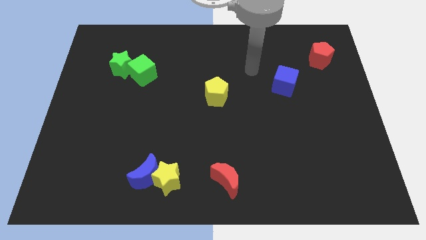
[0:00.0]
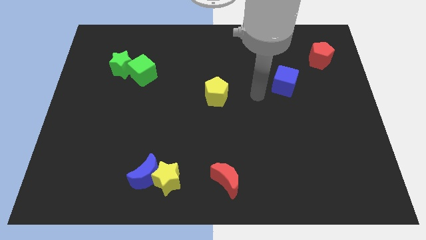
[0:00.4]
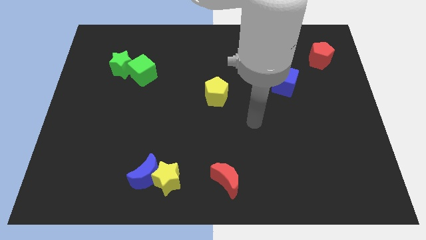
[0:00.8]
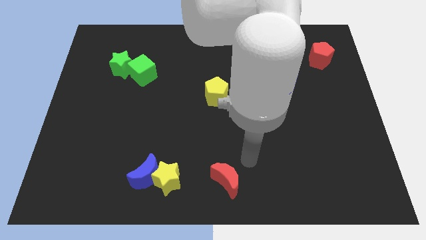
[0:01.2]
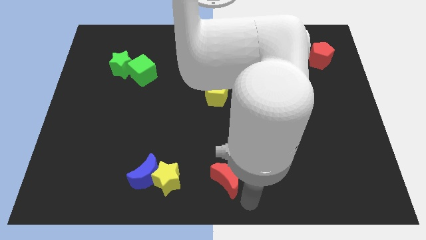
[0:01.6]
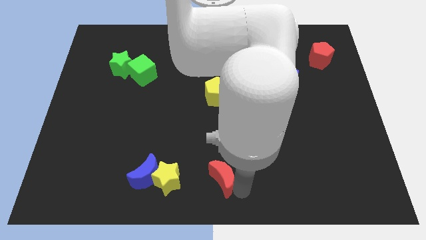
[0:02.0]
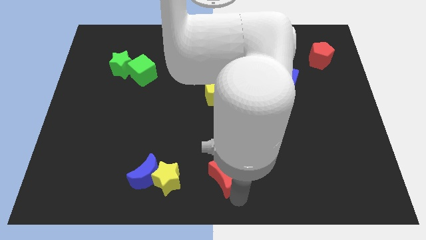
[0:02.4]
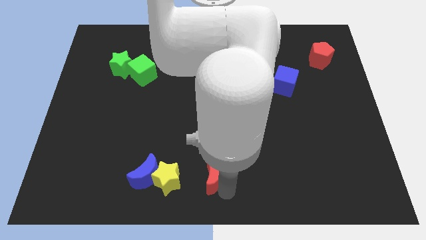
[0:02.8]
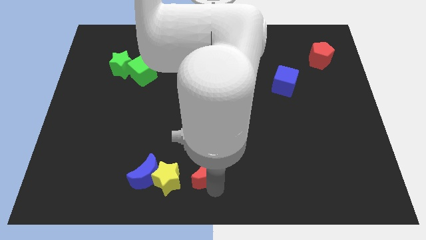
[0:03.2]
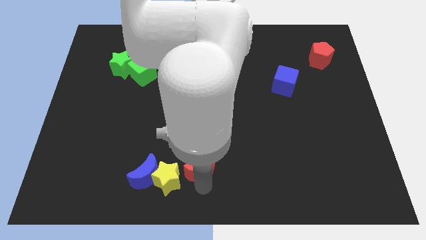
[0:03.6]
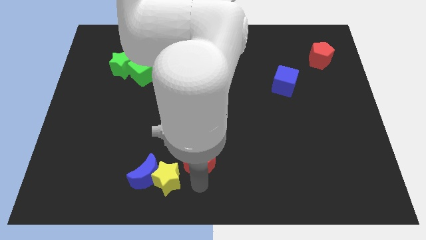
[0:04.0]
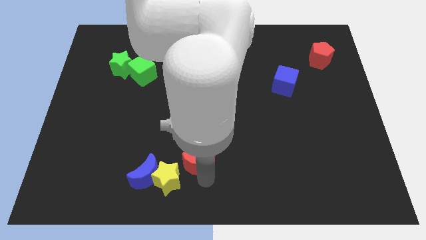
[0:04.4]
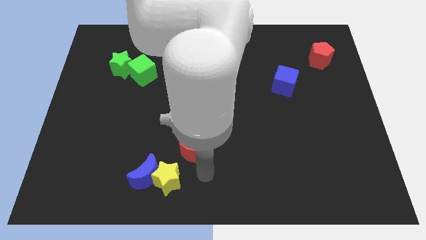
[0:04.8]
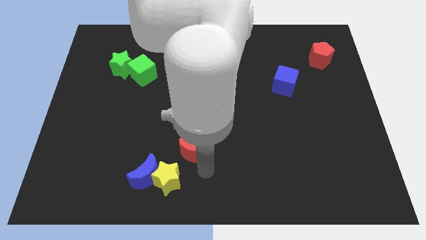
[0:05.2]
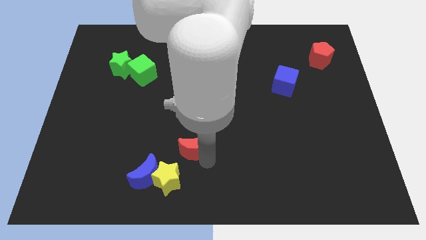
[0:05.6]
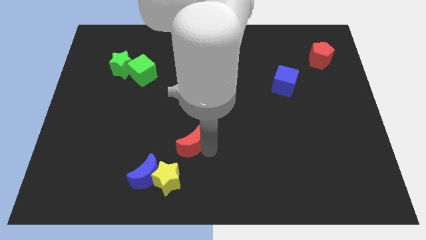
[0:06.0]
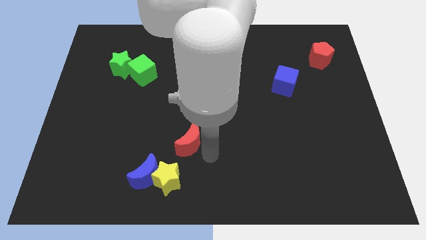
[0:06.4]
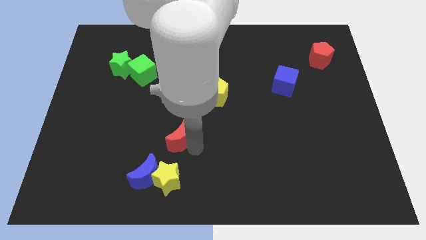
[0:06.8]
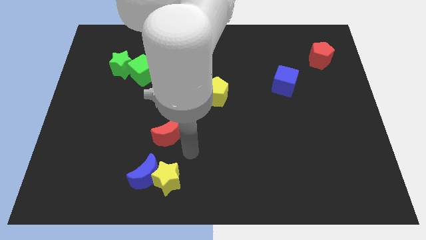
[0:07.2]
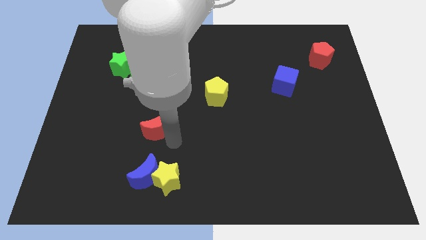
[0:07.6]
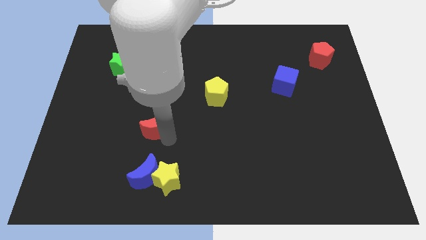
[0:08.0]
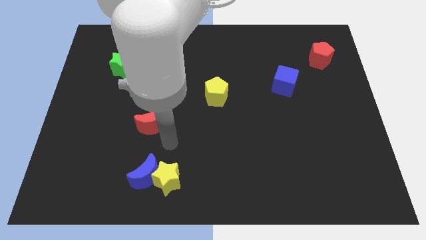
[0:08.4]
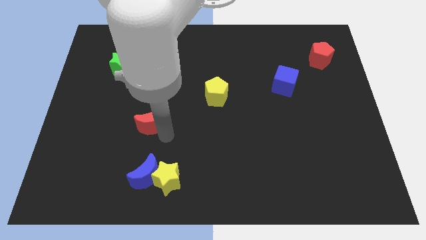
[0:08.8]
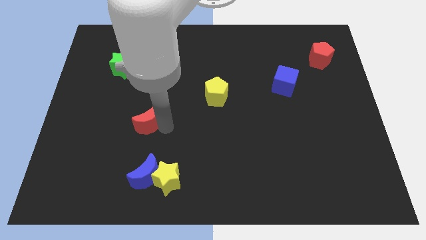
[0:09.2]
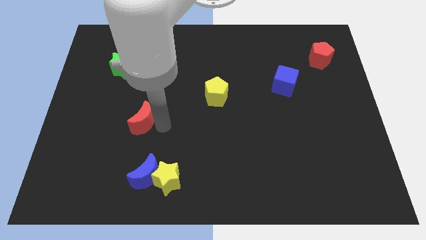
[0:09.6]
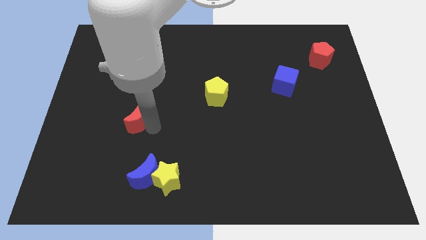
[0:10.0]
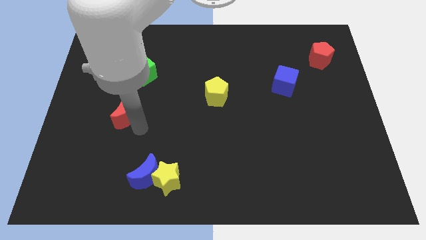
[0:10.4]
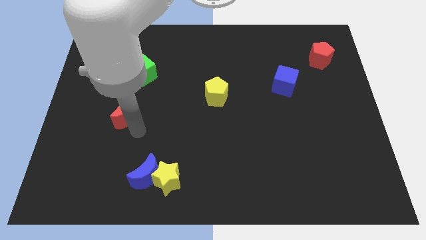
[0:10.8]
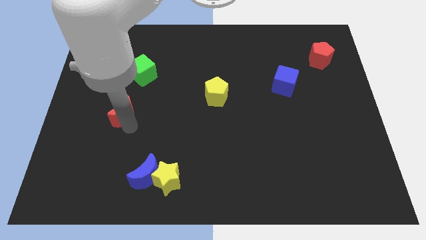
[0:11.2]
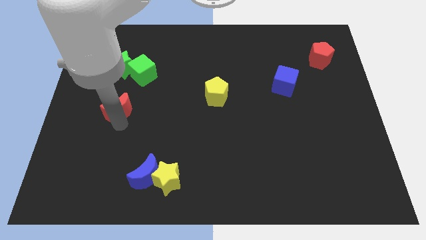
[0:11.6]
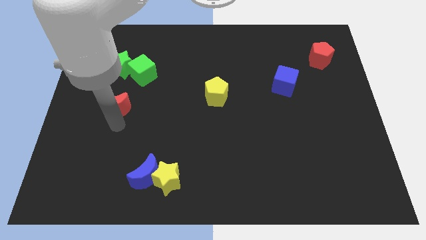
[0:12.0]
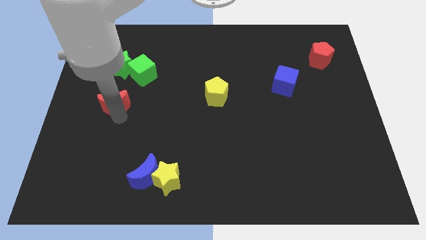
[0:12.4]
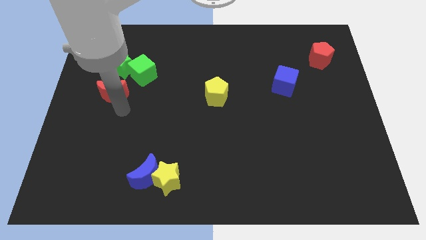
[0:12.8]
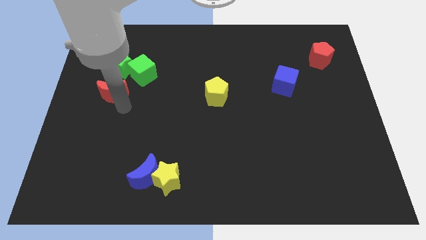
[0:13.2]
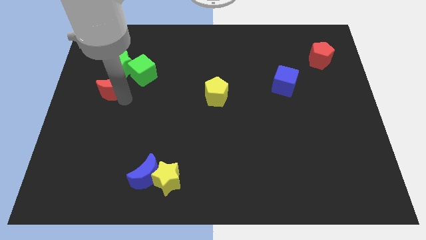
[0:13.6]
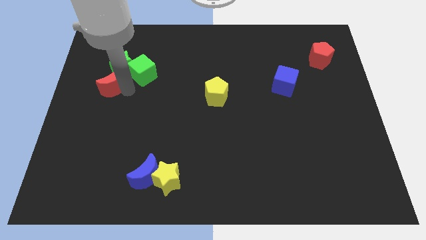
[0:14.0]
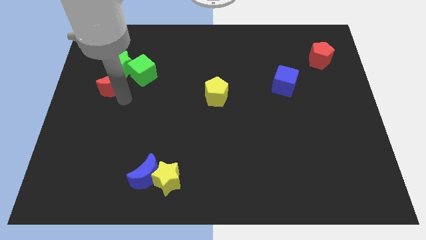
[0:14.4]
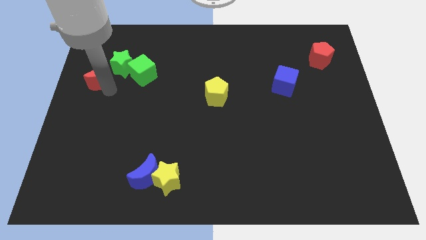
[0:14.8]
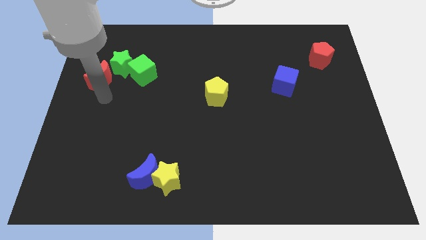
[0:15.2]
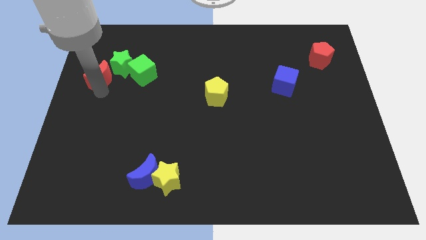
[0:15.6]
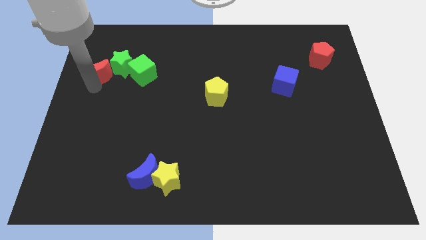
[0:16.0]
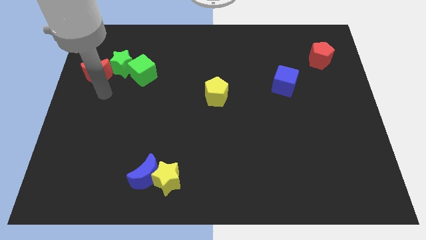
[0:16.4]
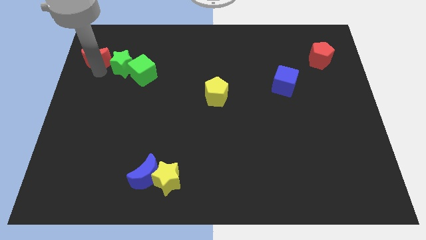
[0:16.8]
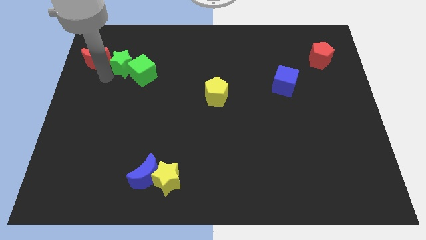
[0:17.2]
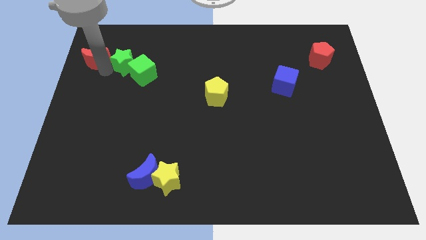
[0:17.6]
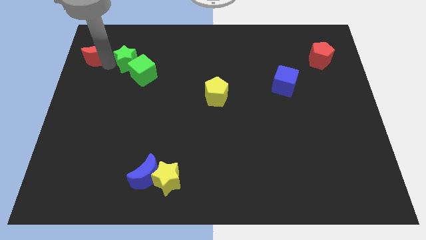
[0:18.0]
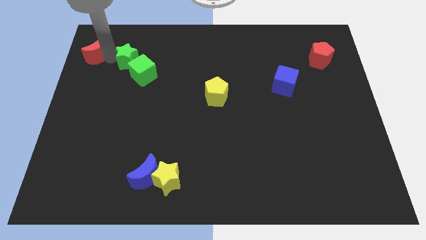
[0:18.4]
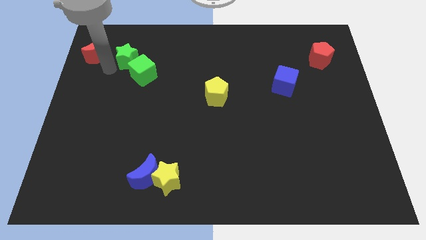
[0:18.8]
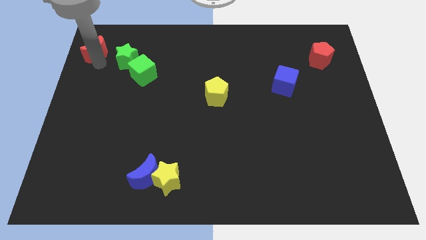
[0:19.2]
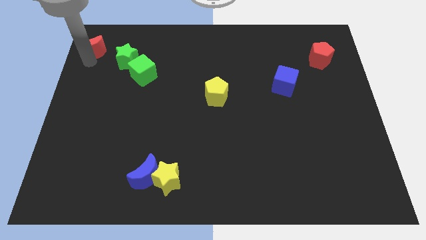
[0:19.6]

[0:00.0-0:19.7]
put the red moon to the top left of the board

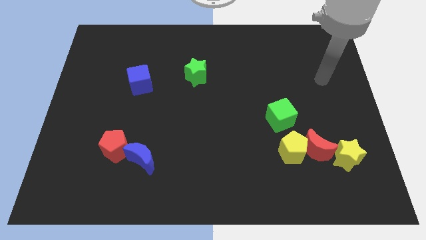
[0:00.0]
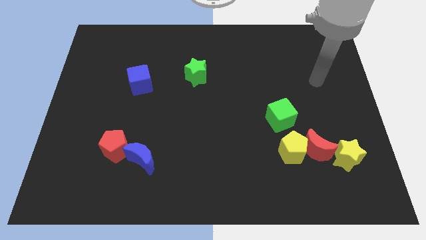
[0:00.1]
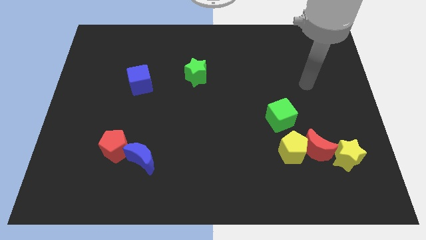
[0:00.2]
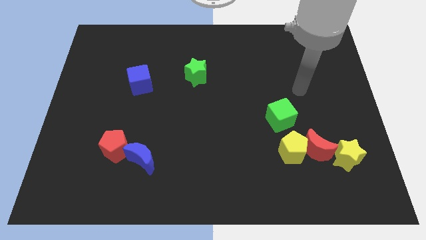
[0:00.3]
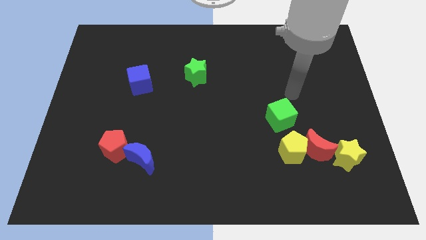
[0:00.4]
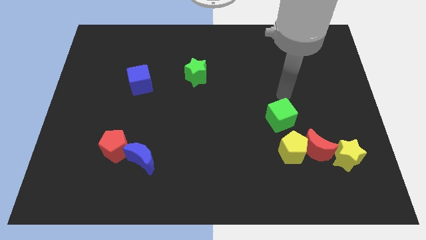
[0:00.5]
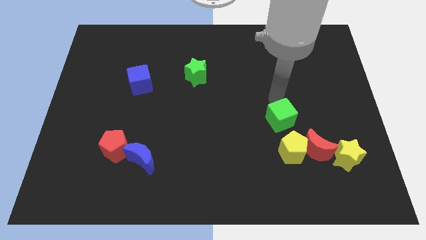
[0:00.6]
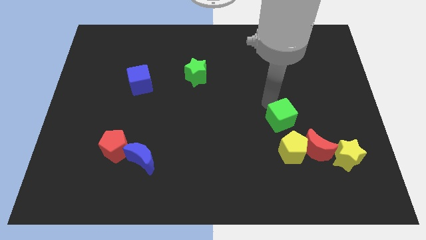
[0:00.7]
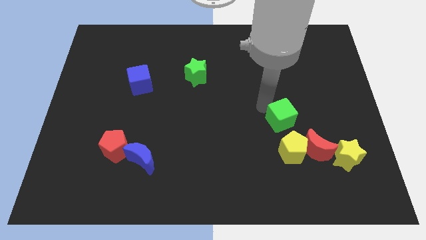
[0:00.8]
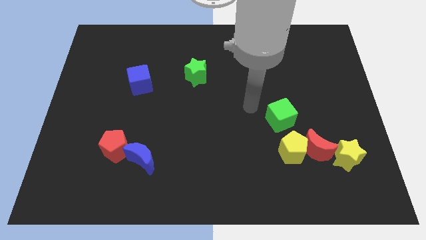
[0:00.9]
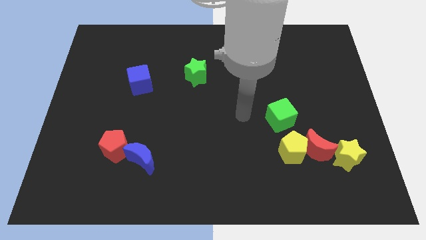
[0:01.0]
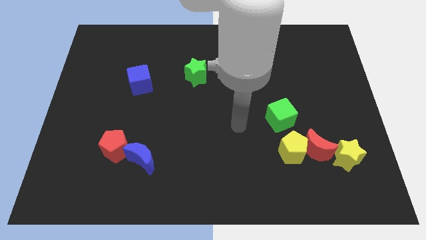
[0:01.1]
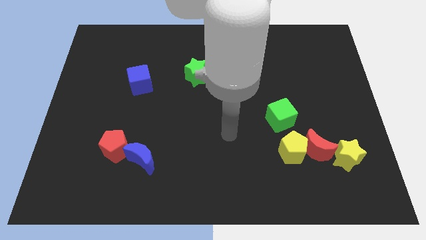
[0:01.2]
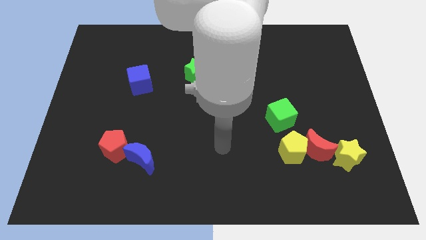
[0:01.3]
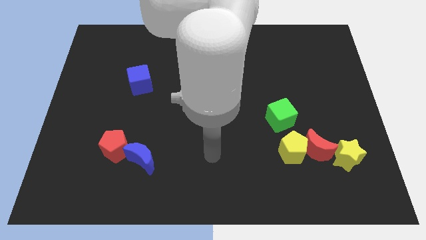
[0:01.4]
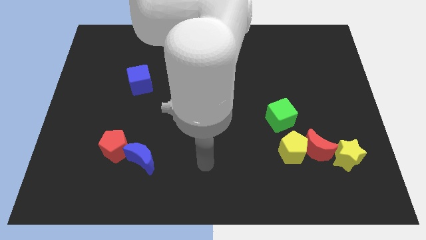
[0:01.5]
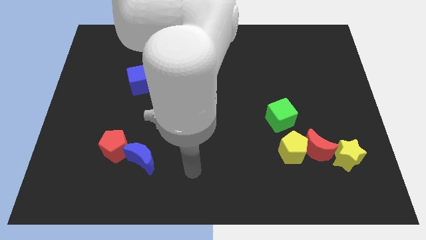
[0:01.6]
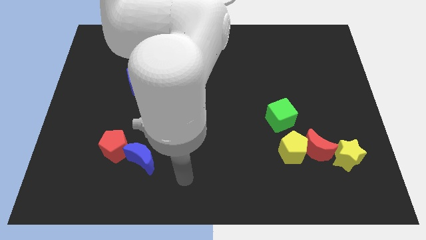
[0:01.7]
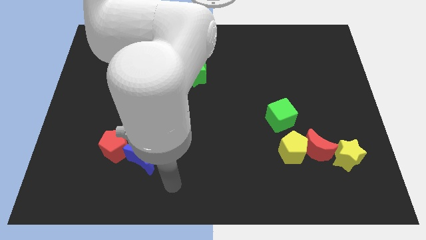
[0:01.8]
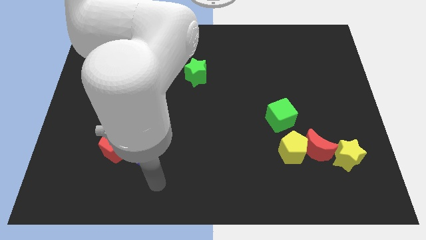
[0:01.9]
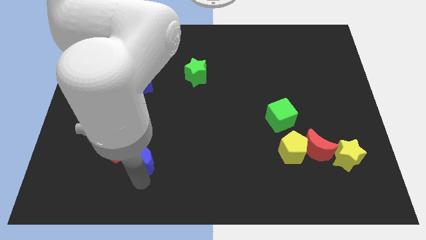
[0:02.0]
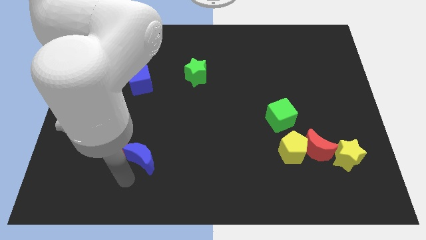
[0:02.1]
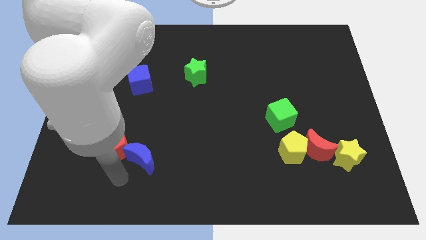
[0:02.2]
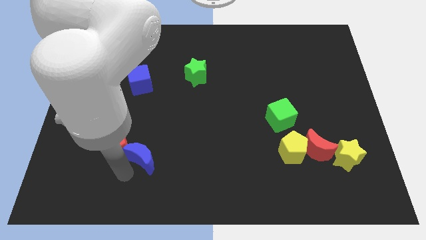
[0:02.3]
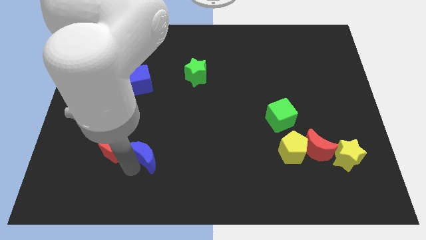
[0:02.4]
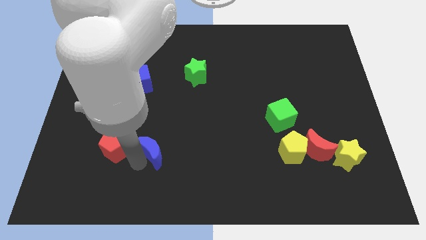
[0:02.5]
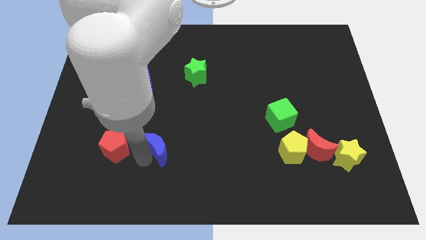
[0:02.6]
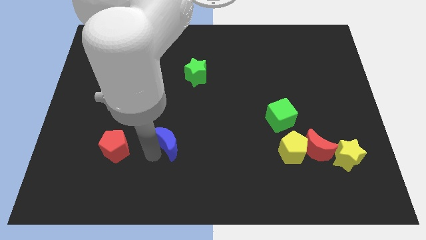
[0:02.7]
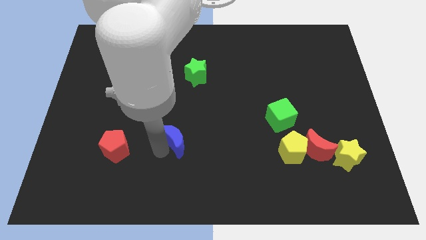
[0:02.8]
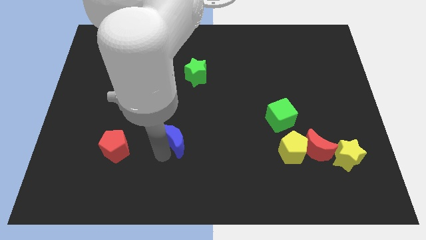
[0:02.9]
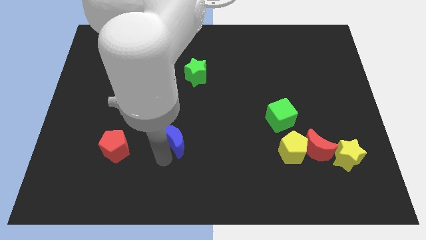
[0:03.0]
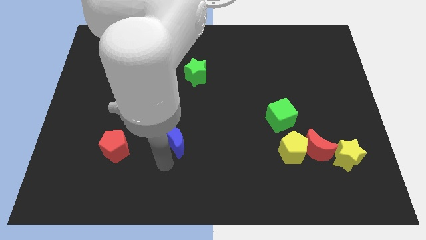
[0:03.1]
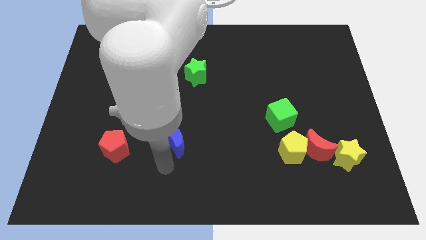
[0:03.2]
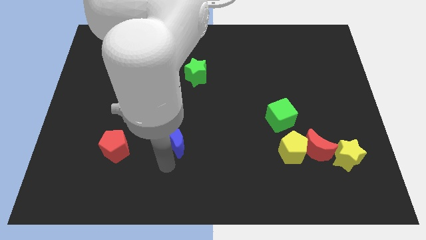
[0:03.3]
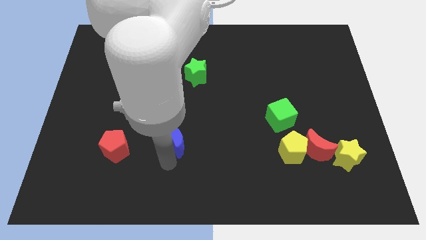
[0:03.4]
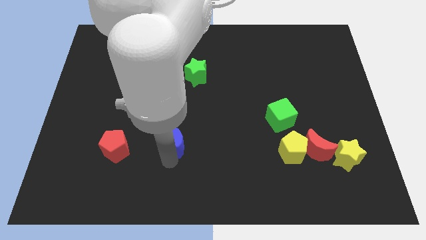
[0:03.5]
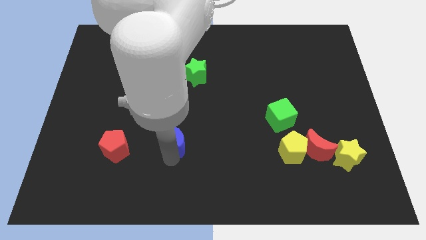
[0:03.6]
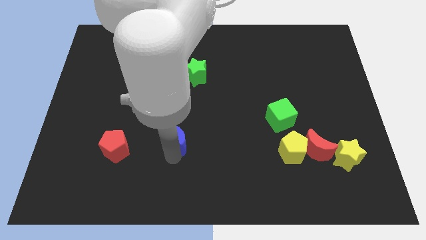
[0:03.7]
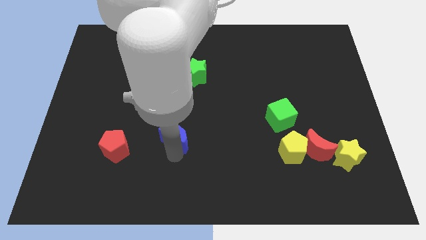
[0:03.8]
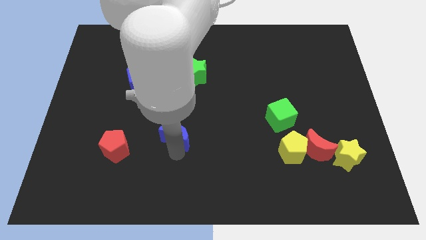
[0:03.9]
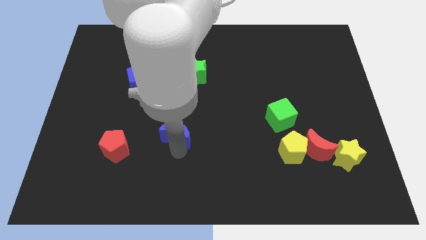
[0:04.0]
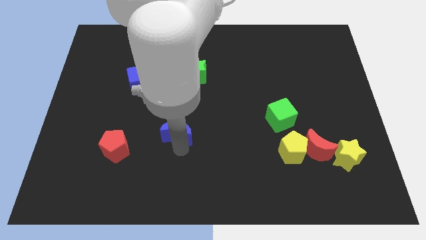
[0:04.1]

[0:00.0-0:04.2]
put the blue moon to the middle
